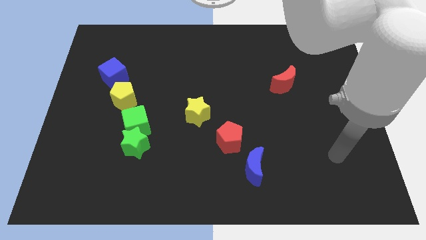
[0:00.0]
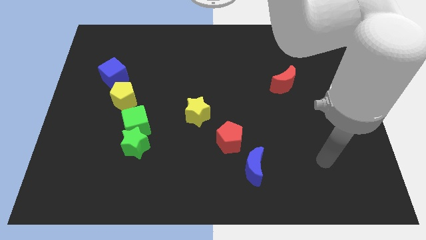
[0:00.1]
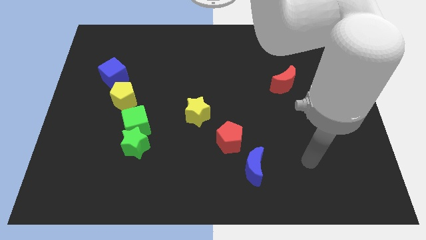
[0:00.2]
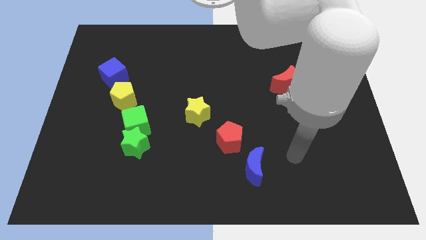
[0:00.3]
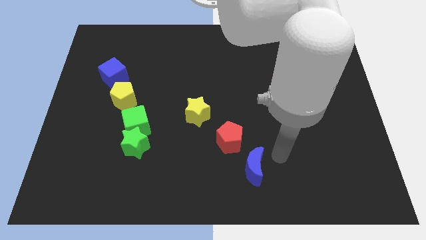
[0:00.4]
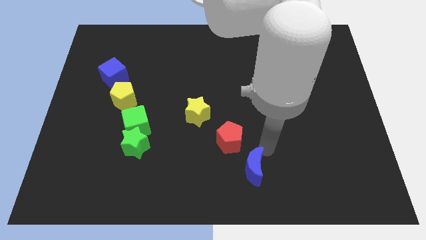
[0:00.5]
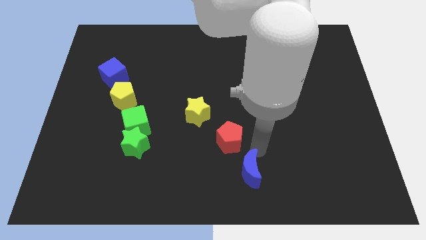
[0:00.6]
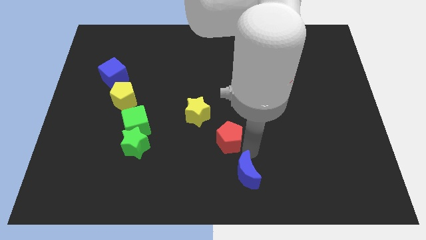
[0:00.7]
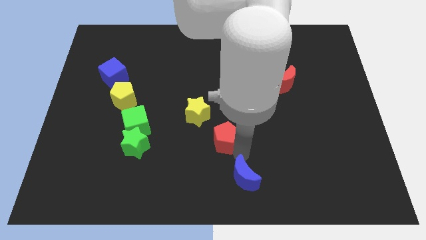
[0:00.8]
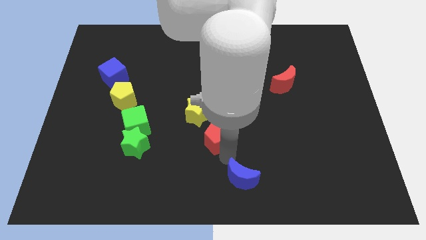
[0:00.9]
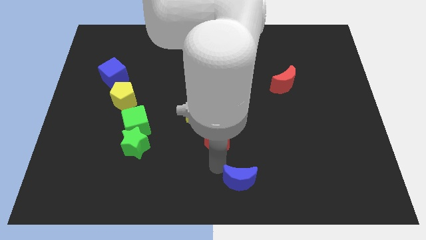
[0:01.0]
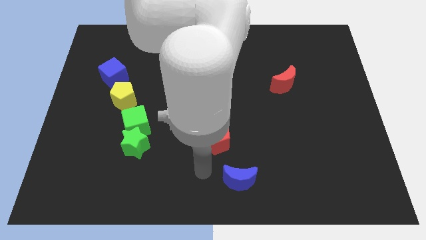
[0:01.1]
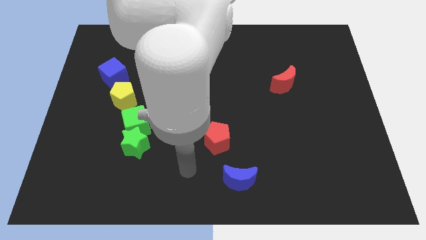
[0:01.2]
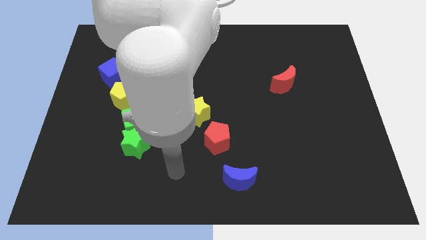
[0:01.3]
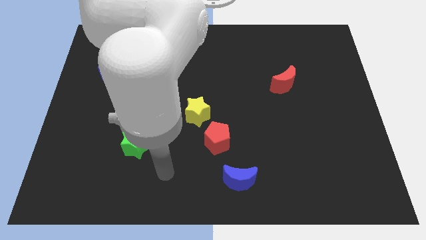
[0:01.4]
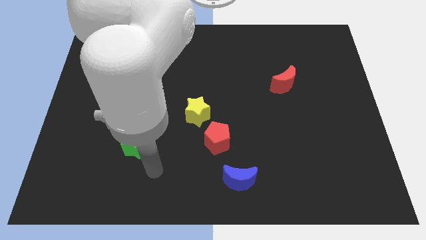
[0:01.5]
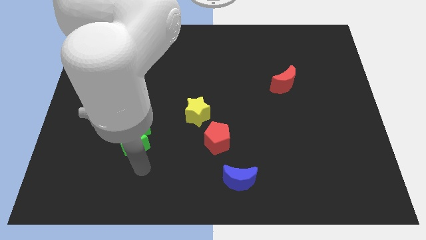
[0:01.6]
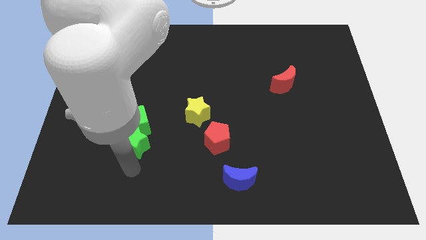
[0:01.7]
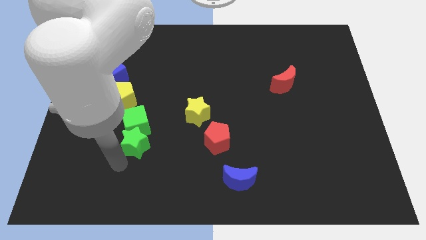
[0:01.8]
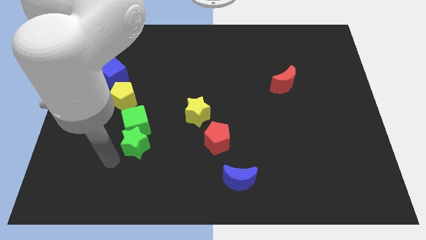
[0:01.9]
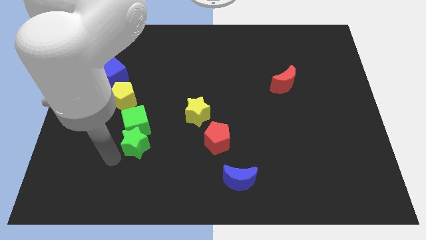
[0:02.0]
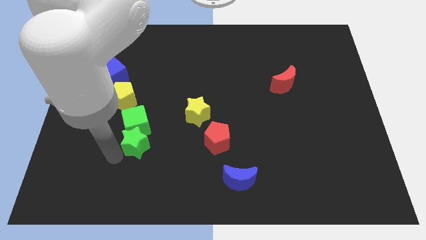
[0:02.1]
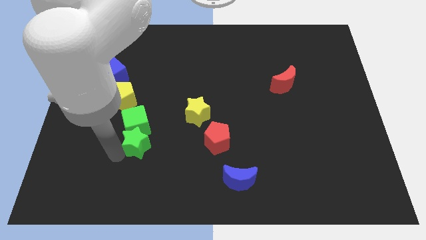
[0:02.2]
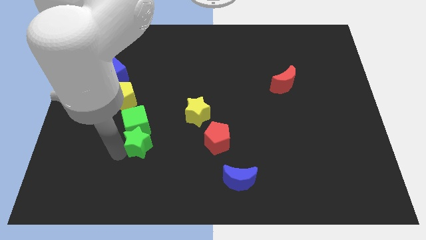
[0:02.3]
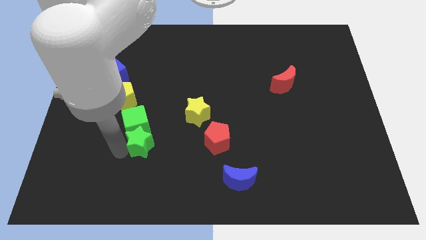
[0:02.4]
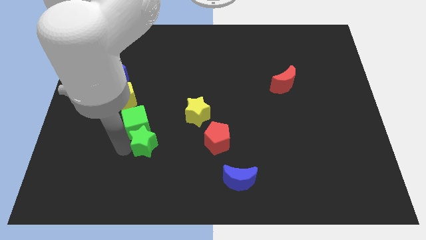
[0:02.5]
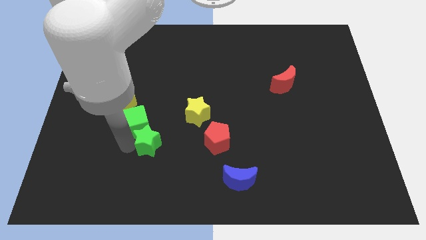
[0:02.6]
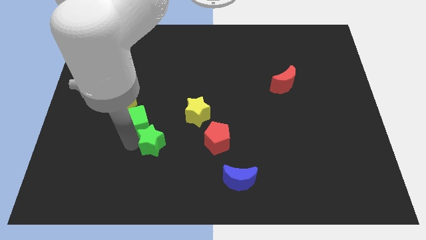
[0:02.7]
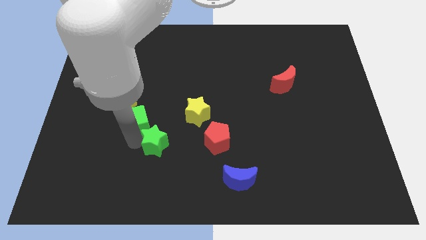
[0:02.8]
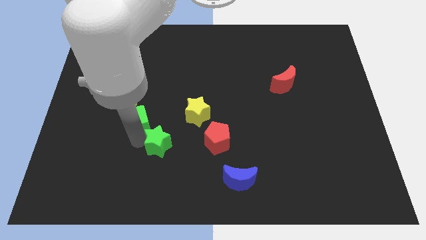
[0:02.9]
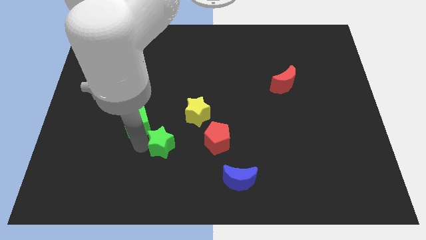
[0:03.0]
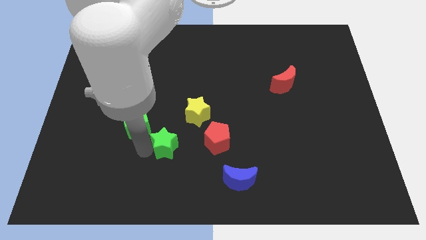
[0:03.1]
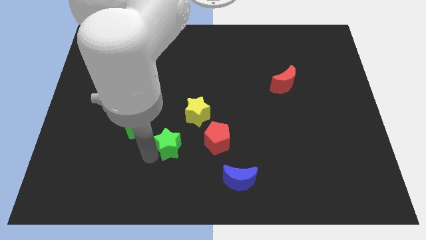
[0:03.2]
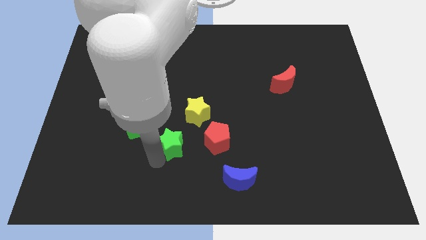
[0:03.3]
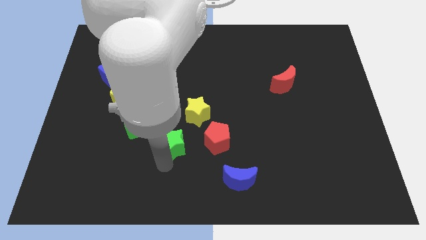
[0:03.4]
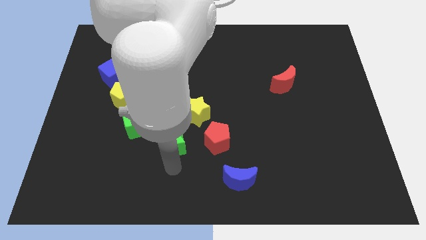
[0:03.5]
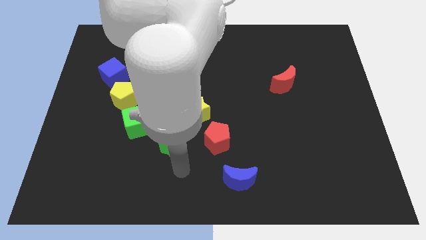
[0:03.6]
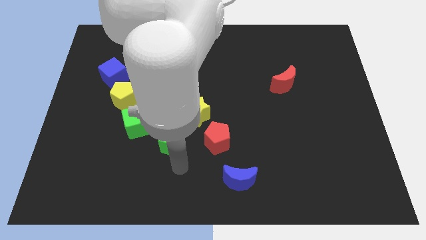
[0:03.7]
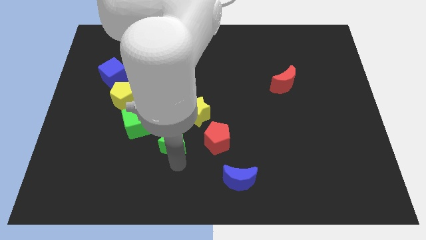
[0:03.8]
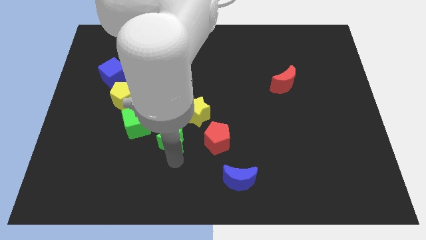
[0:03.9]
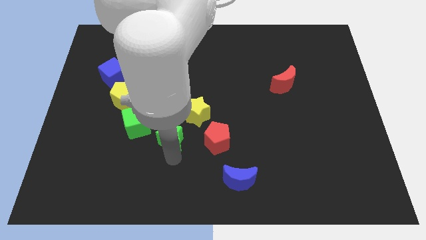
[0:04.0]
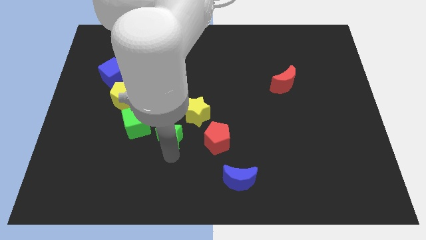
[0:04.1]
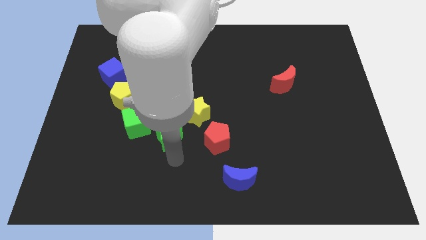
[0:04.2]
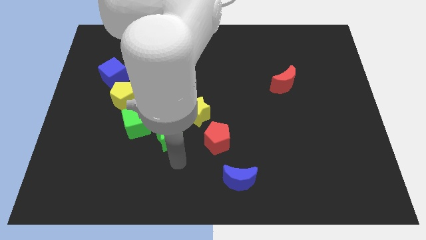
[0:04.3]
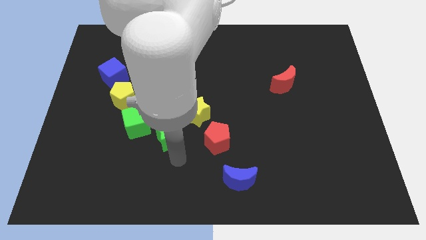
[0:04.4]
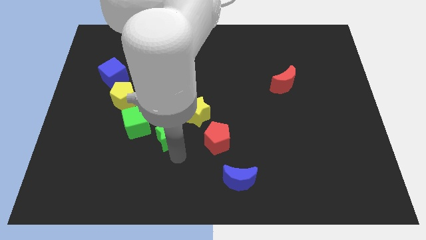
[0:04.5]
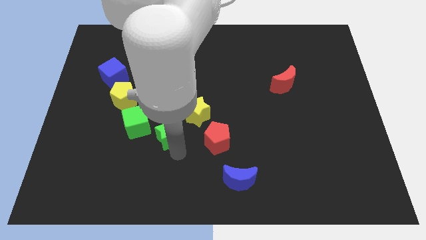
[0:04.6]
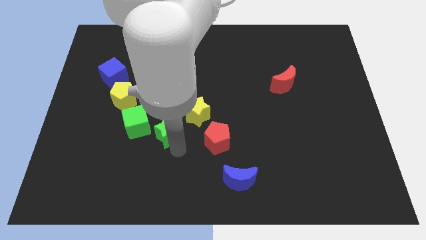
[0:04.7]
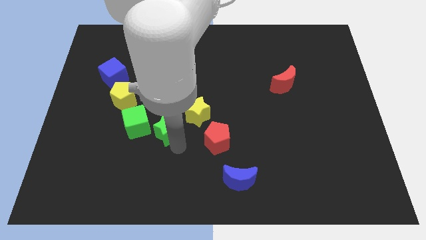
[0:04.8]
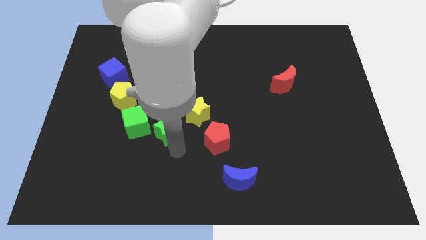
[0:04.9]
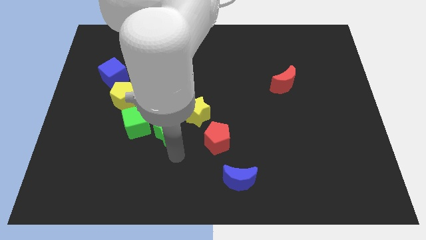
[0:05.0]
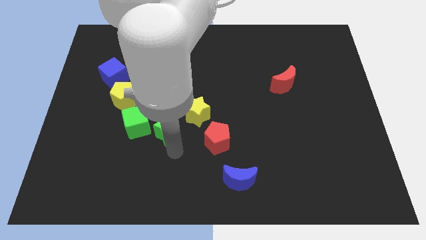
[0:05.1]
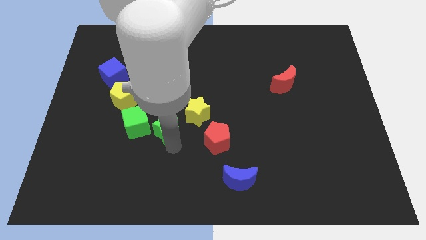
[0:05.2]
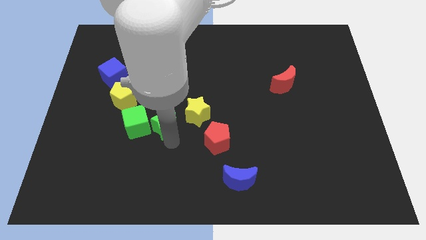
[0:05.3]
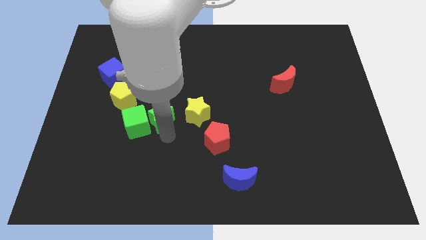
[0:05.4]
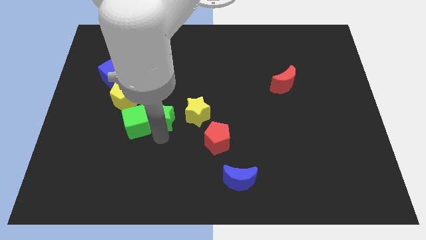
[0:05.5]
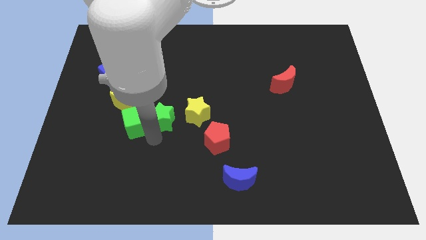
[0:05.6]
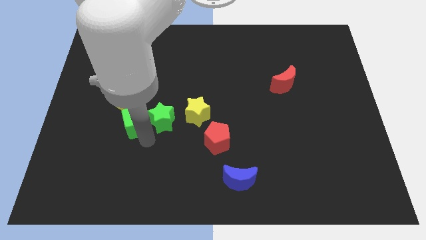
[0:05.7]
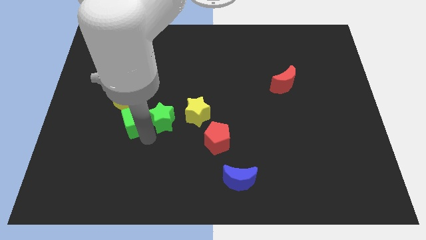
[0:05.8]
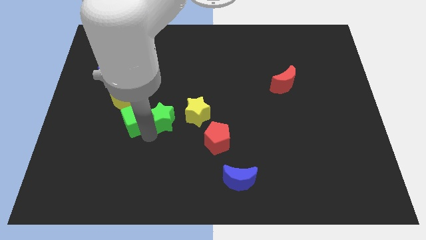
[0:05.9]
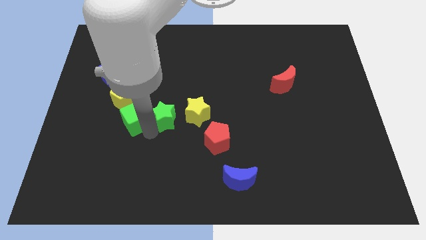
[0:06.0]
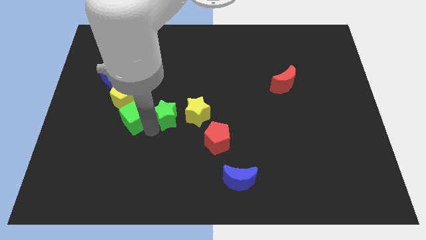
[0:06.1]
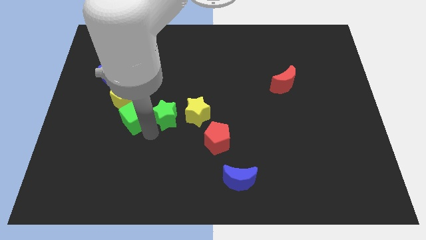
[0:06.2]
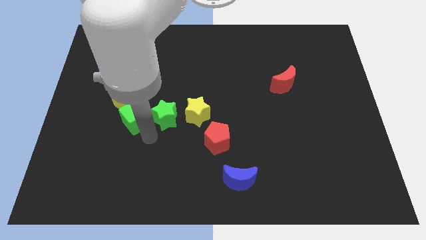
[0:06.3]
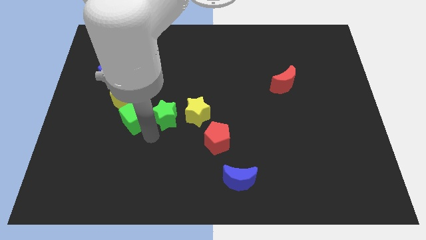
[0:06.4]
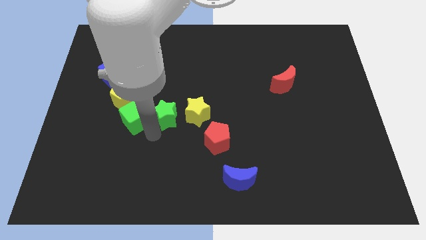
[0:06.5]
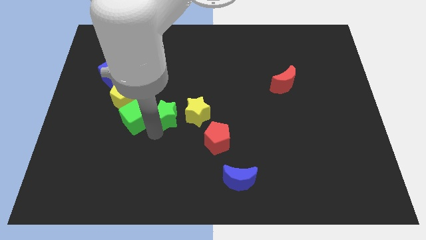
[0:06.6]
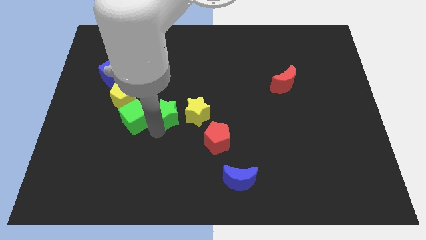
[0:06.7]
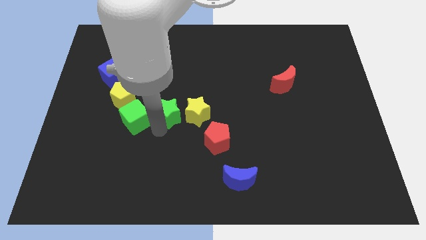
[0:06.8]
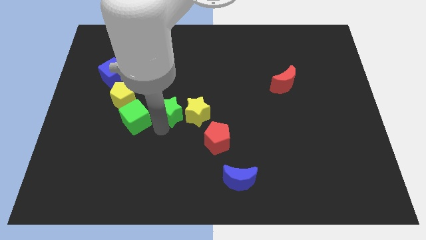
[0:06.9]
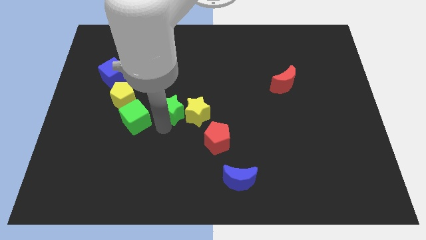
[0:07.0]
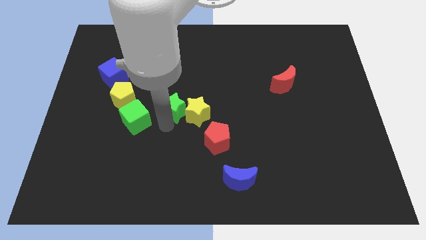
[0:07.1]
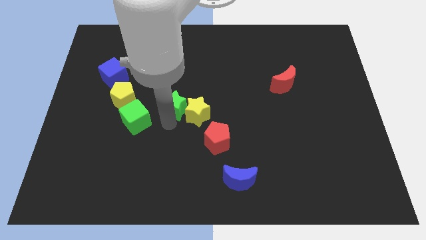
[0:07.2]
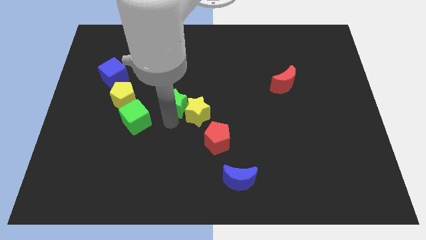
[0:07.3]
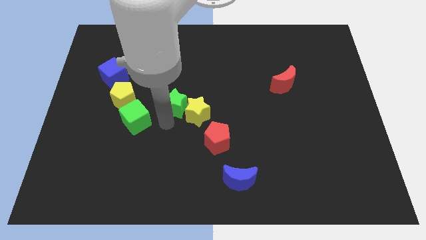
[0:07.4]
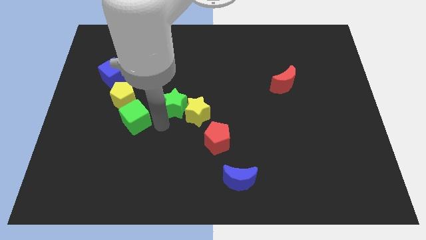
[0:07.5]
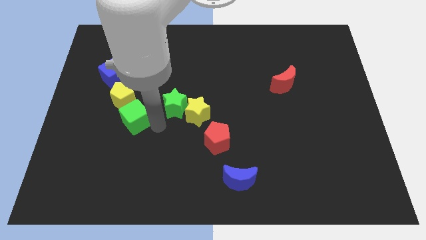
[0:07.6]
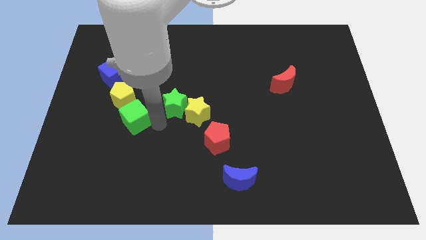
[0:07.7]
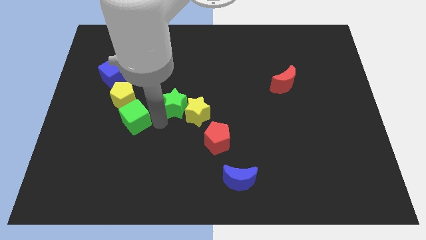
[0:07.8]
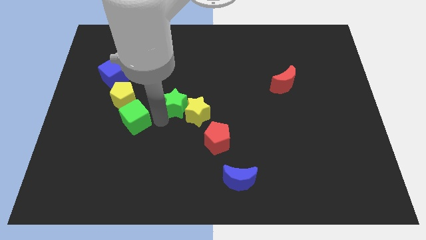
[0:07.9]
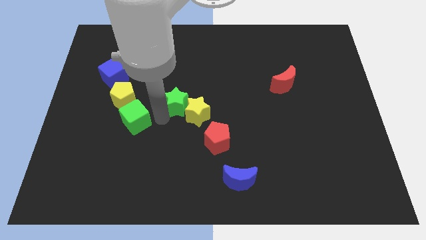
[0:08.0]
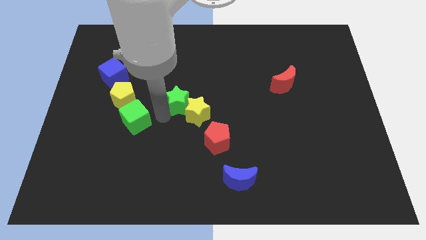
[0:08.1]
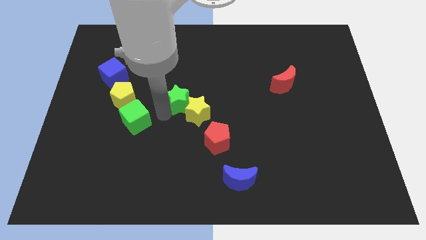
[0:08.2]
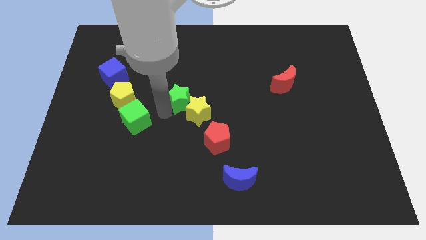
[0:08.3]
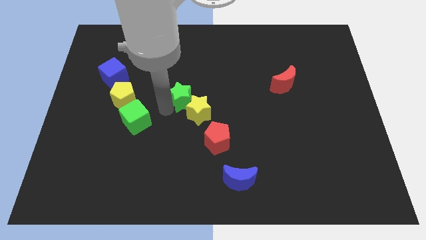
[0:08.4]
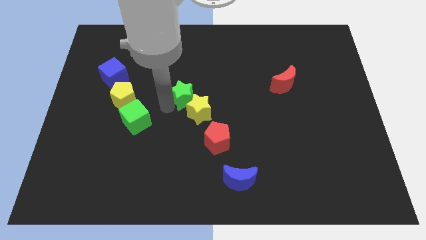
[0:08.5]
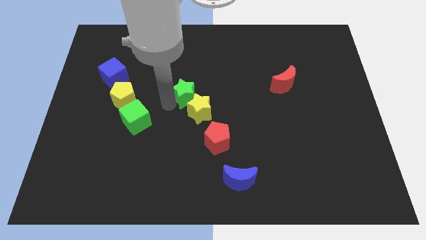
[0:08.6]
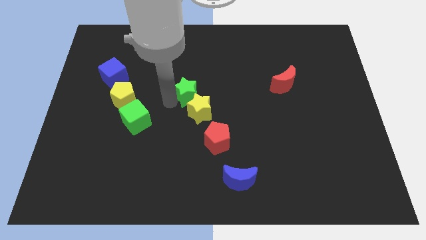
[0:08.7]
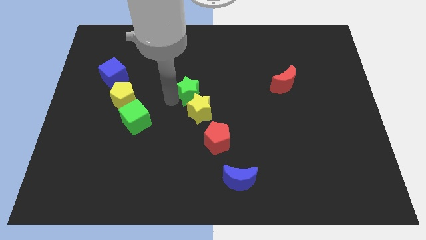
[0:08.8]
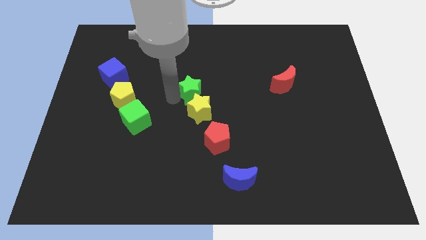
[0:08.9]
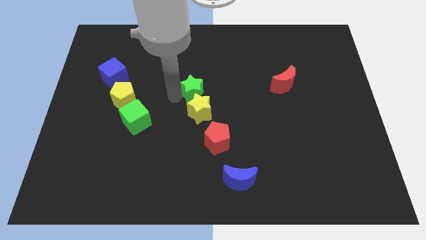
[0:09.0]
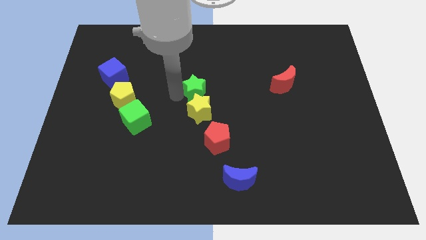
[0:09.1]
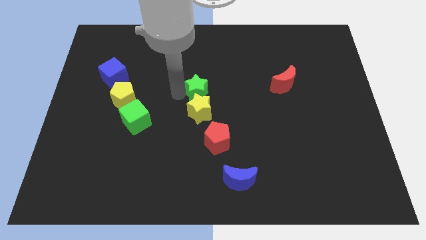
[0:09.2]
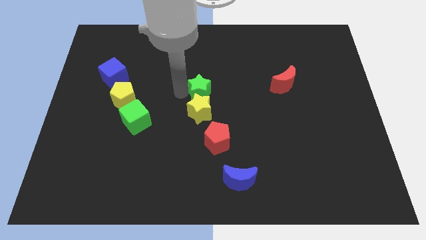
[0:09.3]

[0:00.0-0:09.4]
move the green star diagonally upwards and to the right
